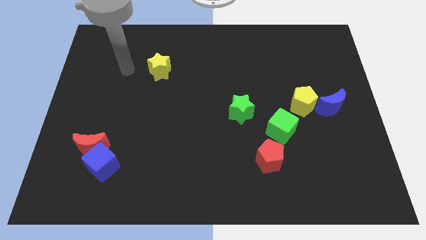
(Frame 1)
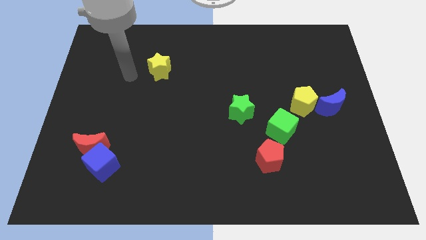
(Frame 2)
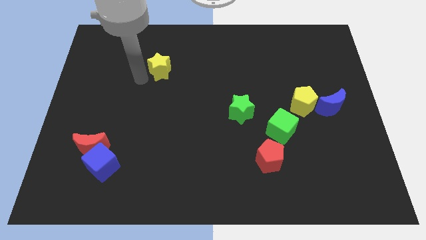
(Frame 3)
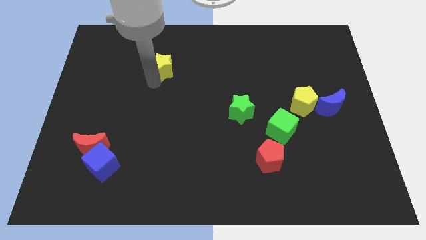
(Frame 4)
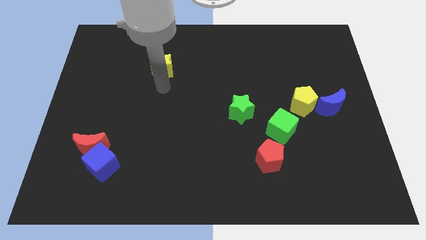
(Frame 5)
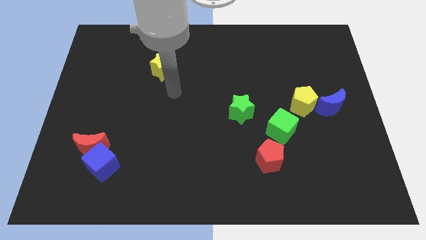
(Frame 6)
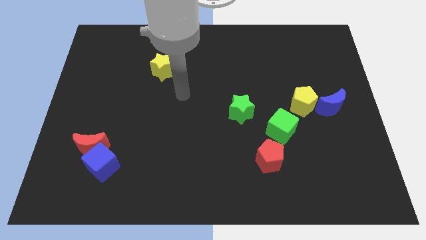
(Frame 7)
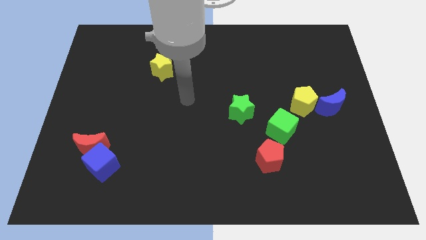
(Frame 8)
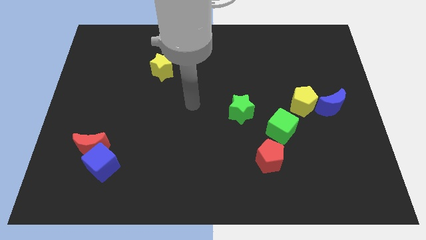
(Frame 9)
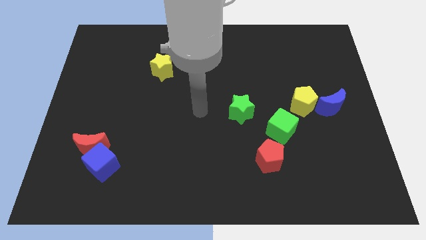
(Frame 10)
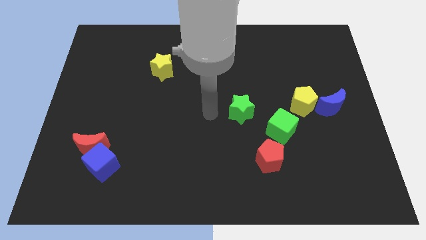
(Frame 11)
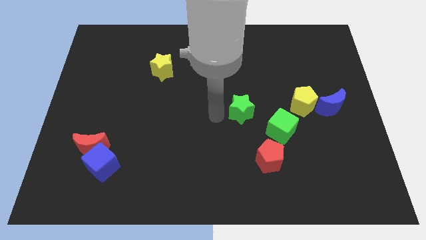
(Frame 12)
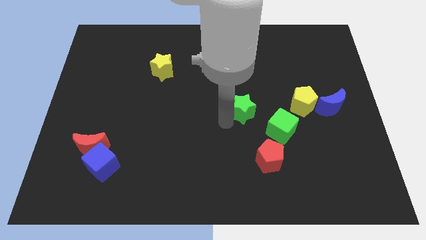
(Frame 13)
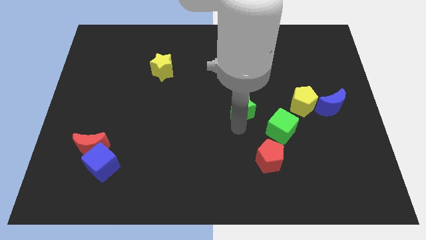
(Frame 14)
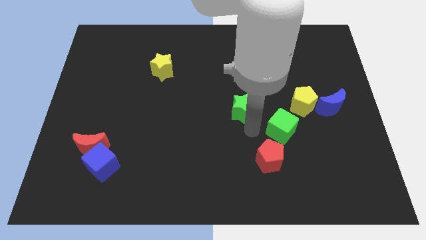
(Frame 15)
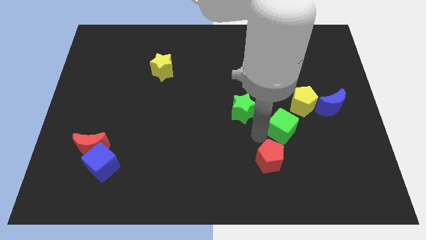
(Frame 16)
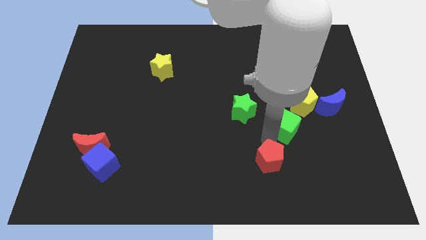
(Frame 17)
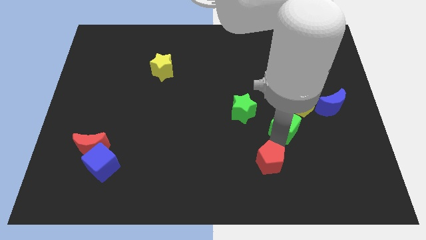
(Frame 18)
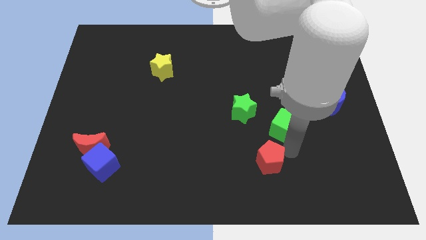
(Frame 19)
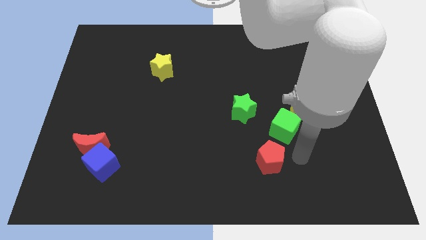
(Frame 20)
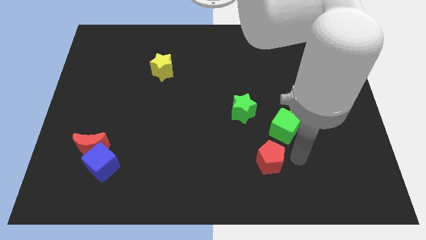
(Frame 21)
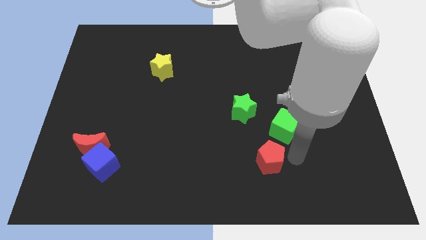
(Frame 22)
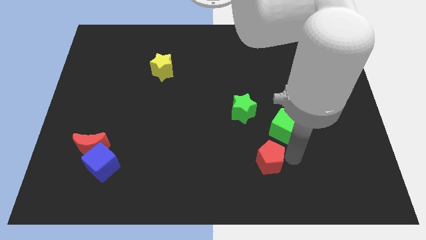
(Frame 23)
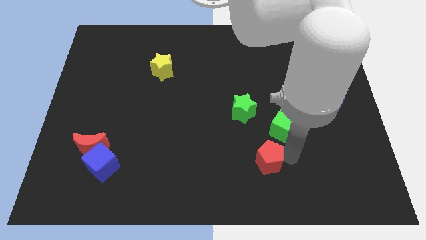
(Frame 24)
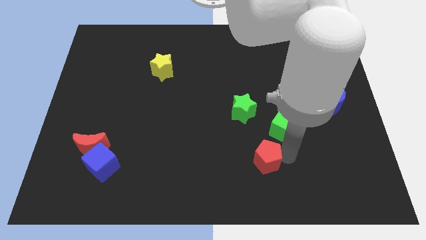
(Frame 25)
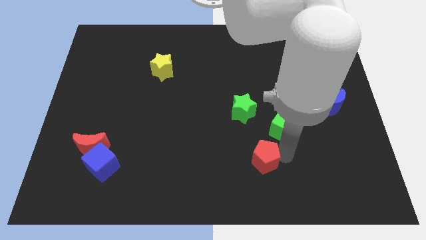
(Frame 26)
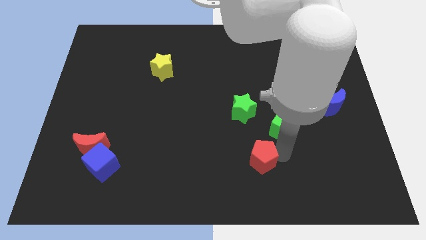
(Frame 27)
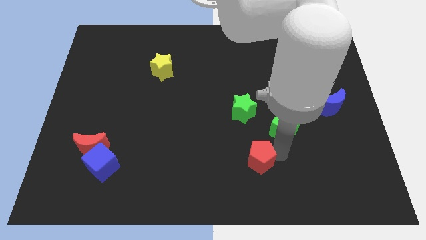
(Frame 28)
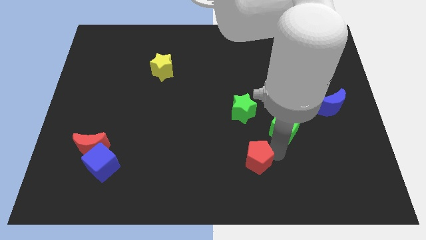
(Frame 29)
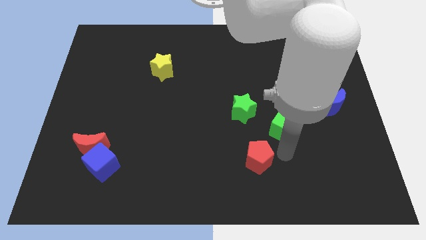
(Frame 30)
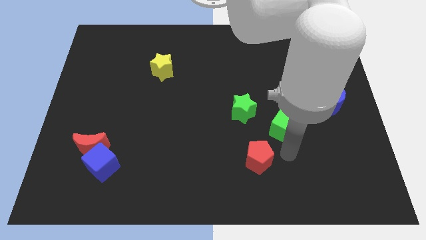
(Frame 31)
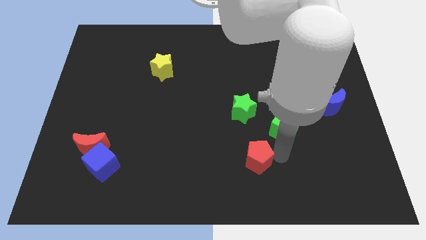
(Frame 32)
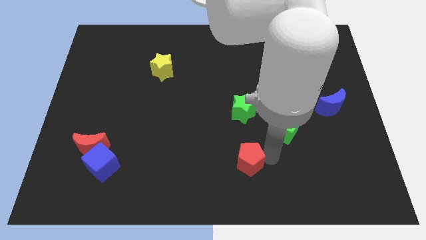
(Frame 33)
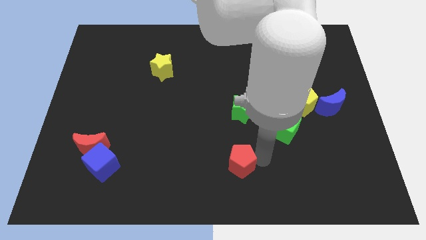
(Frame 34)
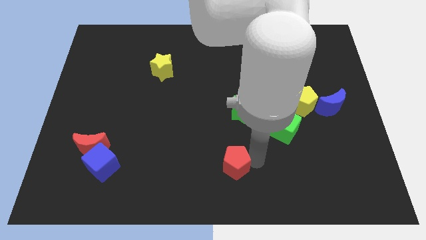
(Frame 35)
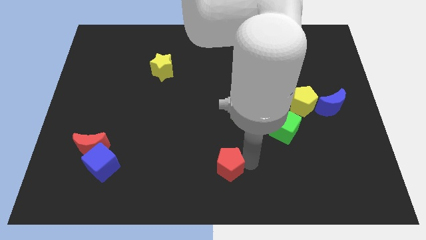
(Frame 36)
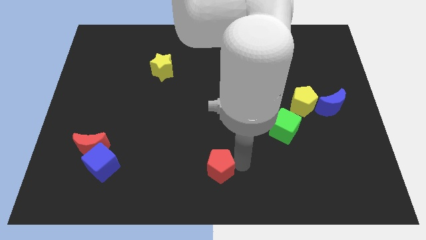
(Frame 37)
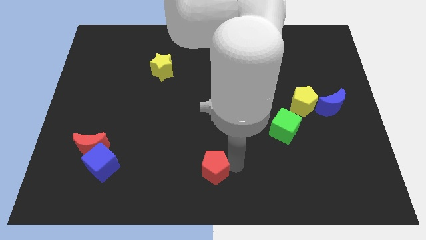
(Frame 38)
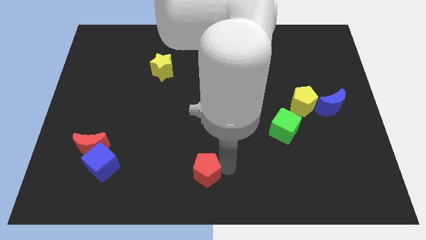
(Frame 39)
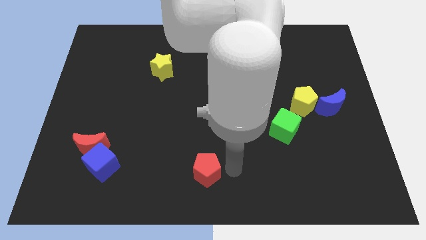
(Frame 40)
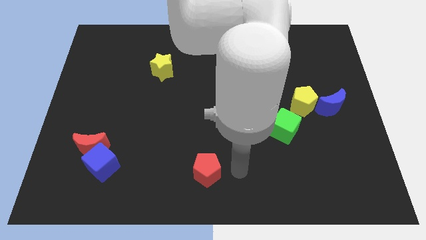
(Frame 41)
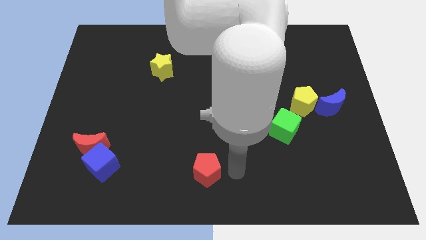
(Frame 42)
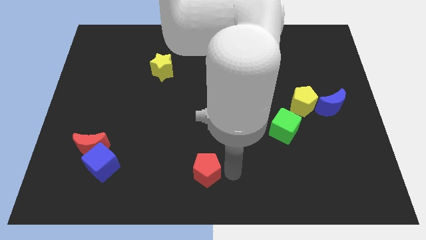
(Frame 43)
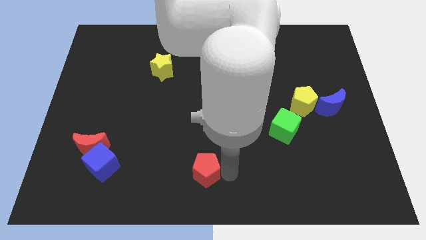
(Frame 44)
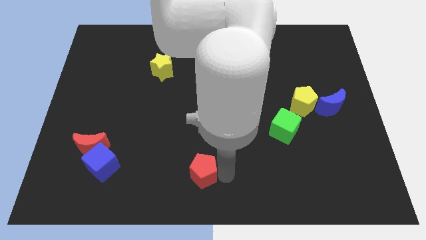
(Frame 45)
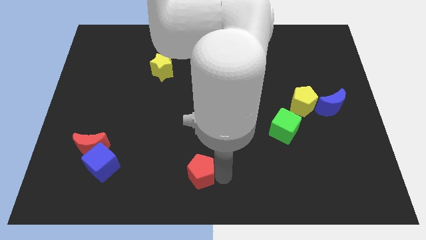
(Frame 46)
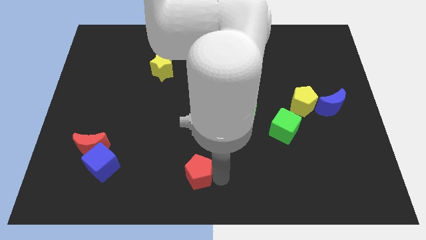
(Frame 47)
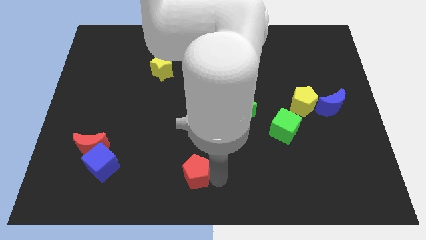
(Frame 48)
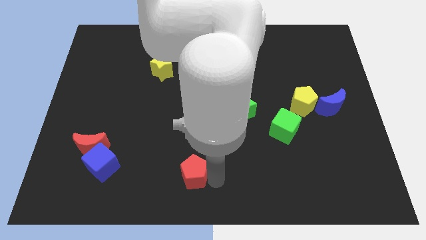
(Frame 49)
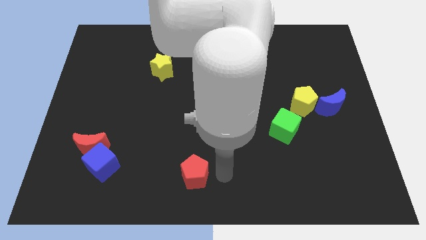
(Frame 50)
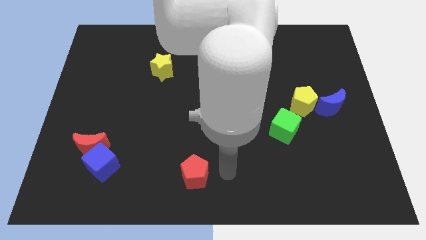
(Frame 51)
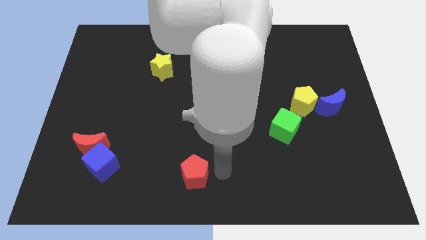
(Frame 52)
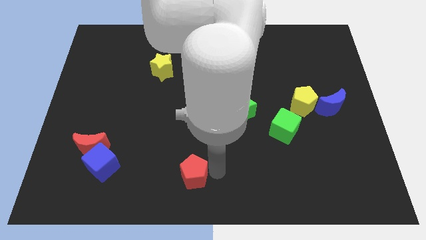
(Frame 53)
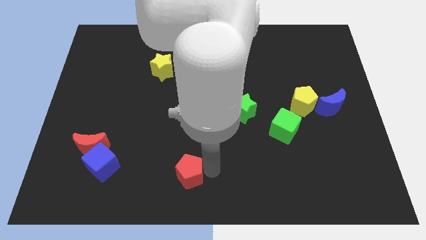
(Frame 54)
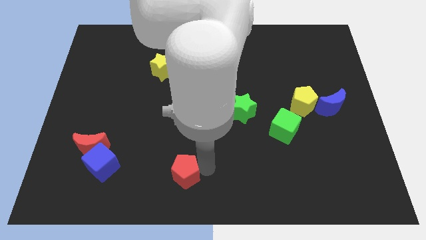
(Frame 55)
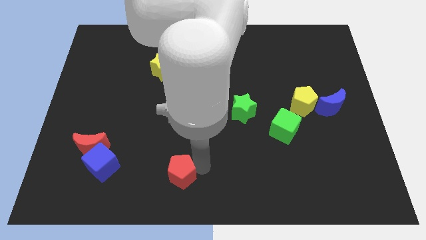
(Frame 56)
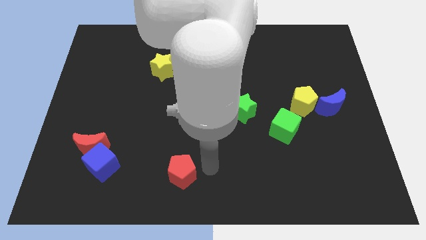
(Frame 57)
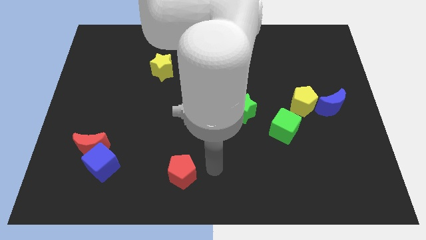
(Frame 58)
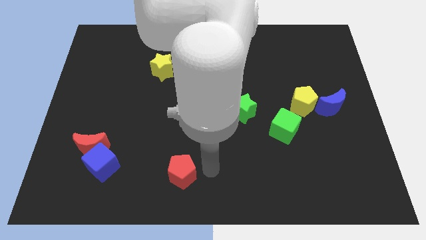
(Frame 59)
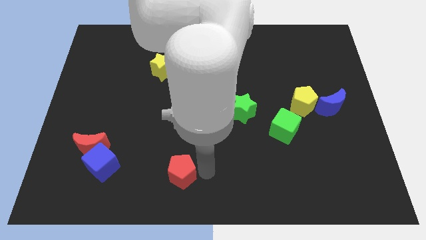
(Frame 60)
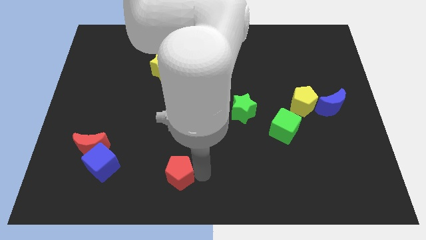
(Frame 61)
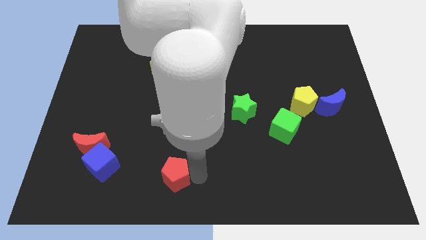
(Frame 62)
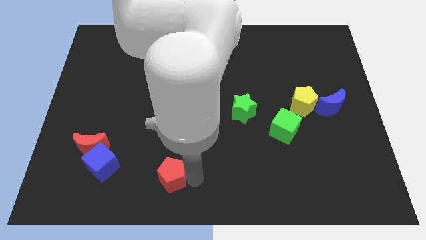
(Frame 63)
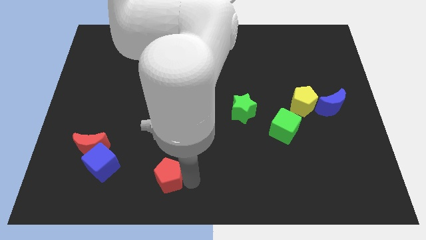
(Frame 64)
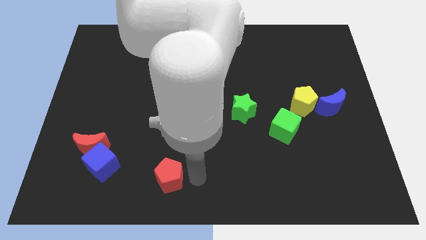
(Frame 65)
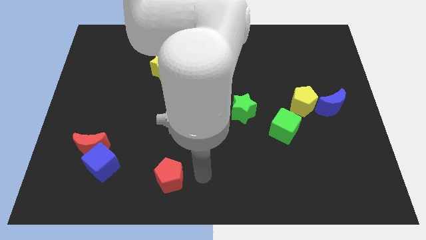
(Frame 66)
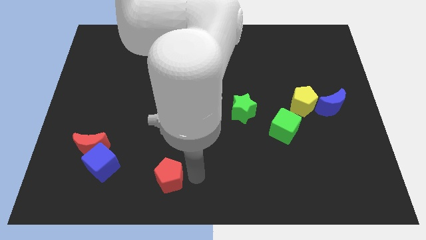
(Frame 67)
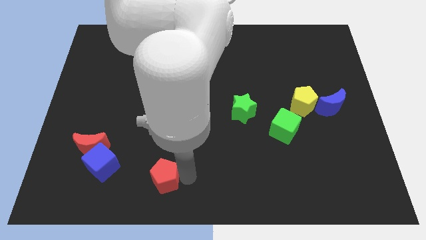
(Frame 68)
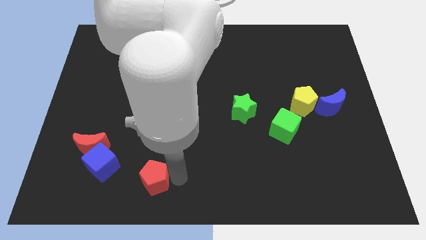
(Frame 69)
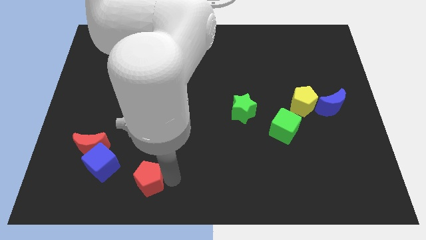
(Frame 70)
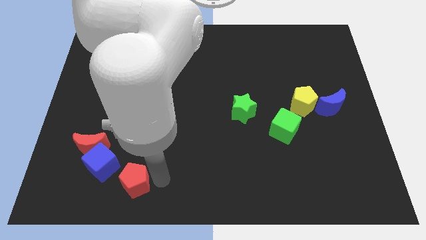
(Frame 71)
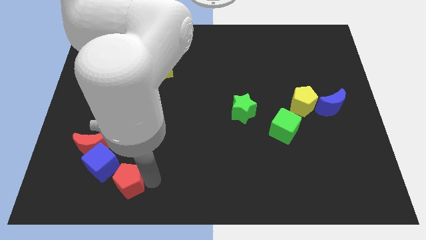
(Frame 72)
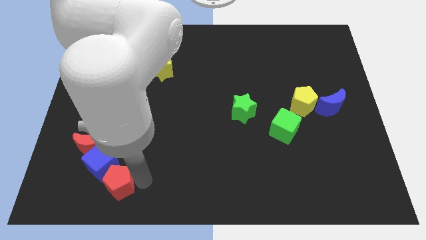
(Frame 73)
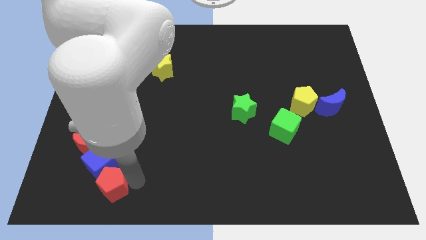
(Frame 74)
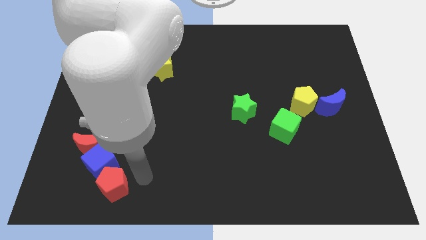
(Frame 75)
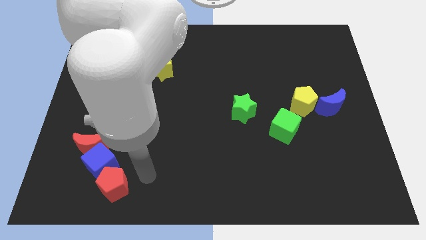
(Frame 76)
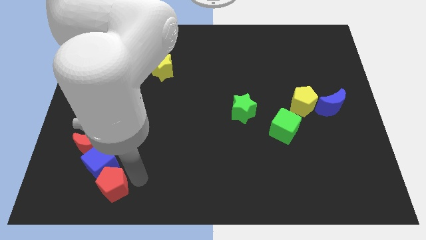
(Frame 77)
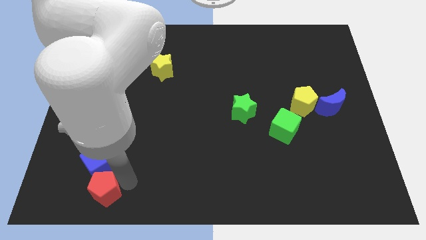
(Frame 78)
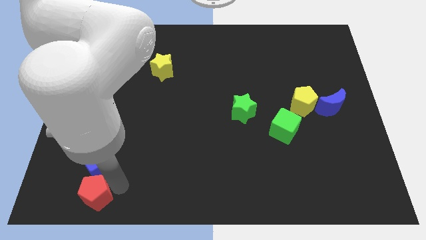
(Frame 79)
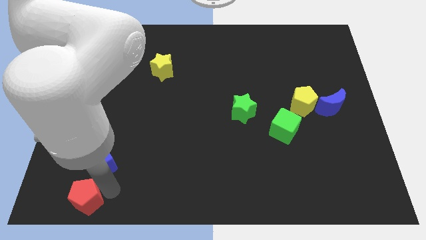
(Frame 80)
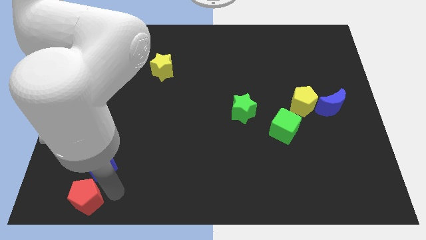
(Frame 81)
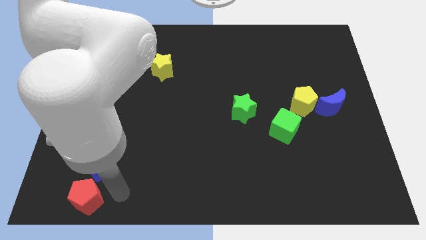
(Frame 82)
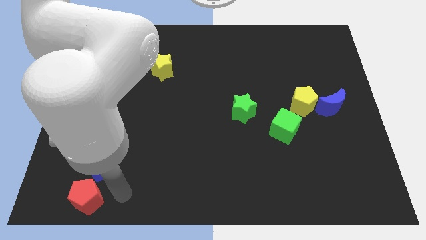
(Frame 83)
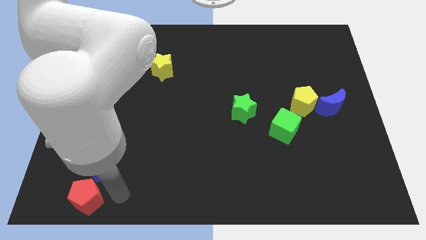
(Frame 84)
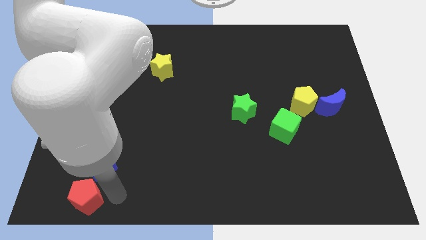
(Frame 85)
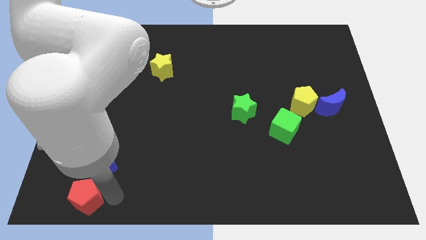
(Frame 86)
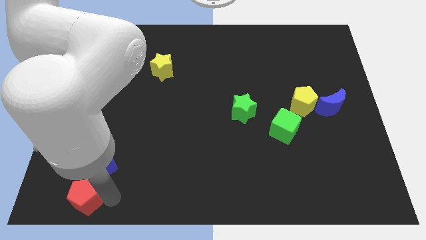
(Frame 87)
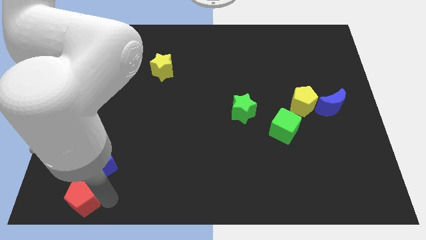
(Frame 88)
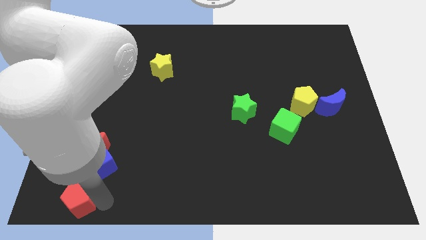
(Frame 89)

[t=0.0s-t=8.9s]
slide the red pentagon to the bottom left corner
